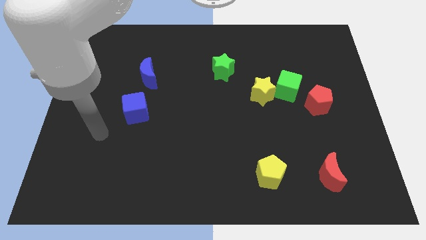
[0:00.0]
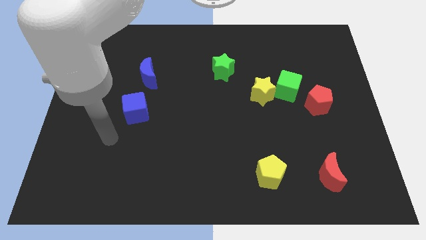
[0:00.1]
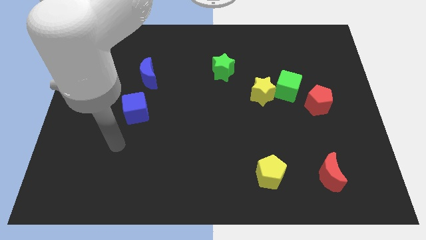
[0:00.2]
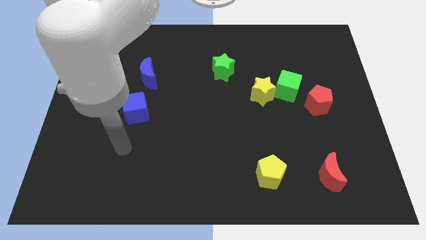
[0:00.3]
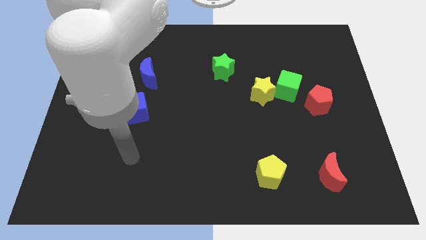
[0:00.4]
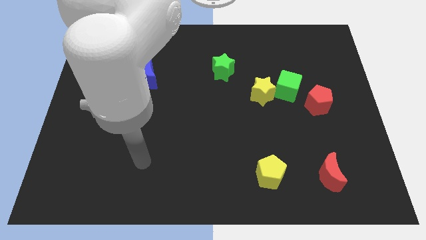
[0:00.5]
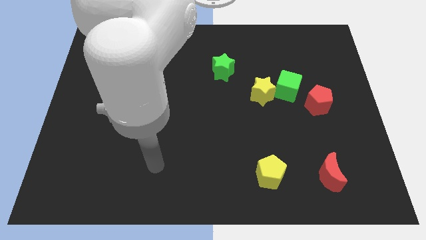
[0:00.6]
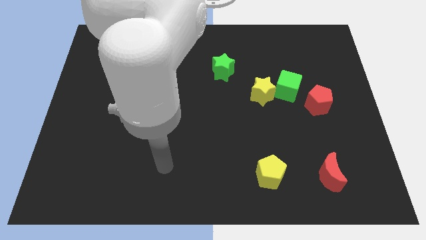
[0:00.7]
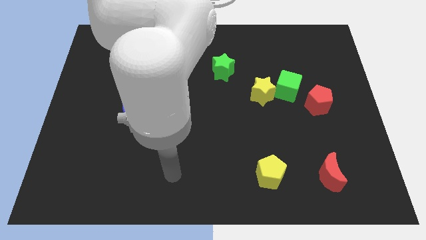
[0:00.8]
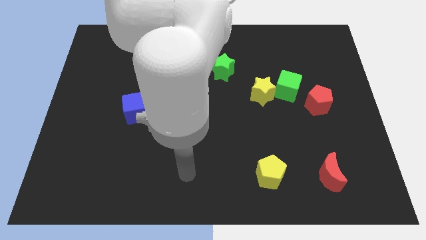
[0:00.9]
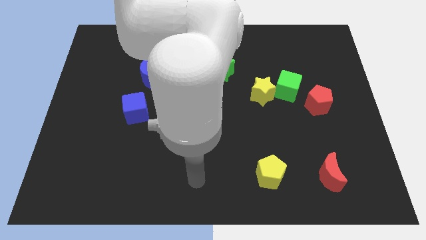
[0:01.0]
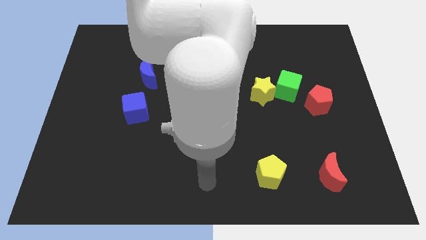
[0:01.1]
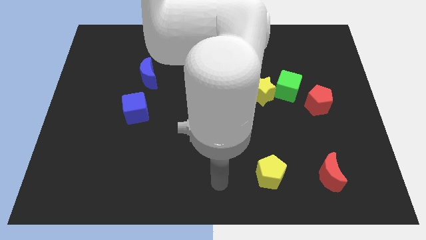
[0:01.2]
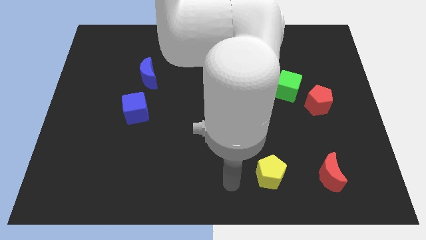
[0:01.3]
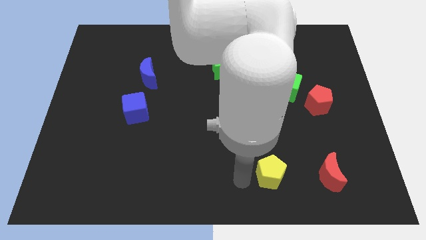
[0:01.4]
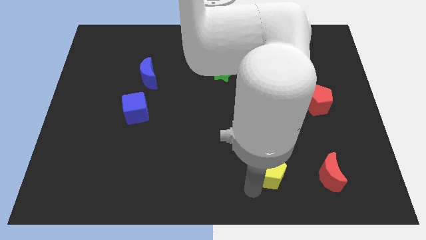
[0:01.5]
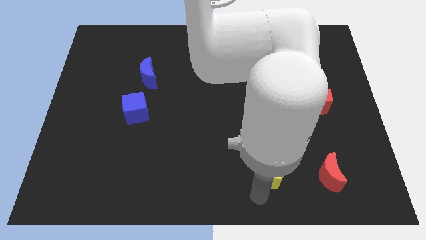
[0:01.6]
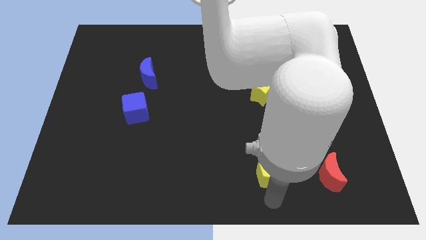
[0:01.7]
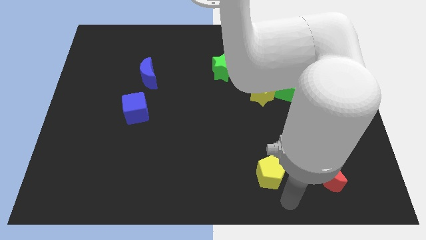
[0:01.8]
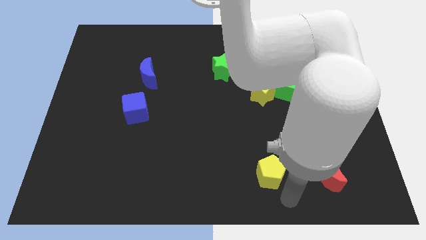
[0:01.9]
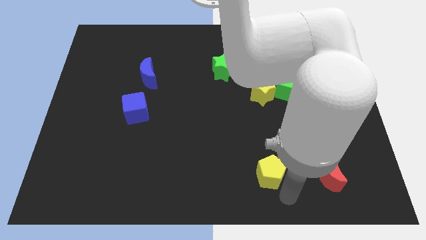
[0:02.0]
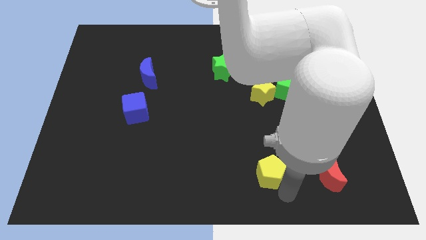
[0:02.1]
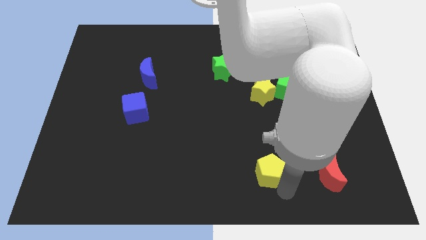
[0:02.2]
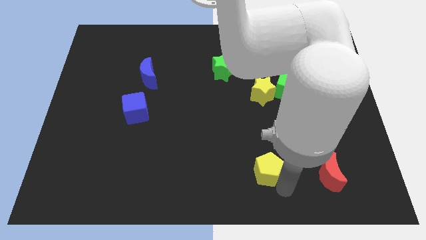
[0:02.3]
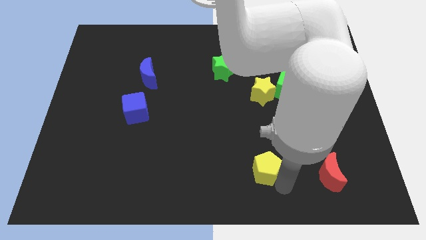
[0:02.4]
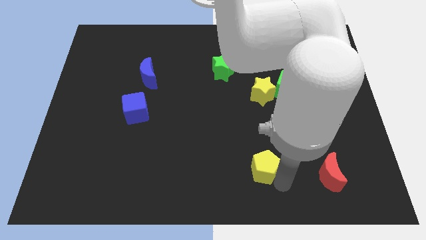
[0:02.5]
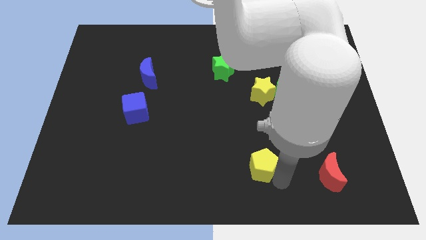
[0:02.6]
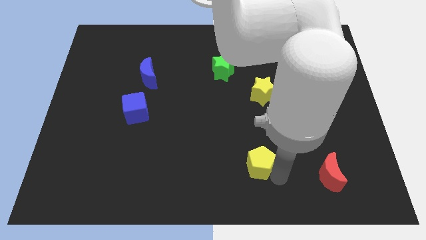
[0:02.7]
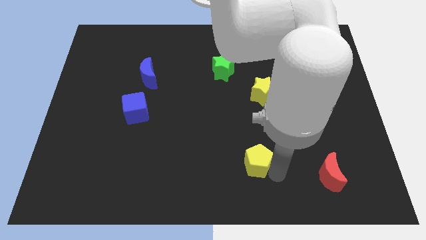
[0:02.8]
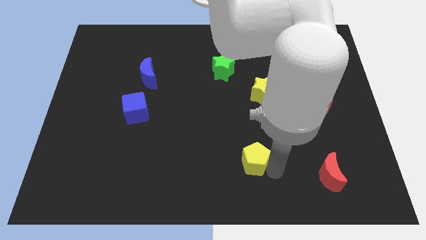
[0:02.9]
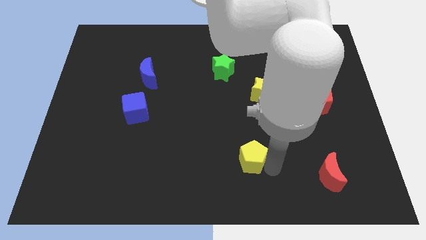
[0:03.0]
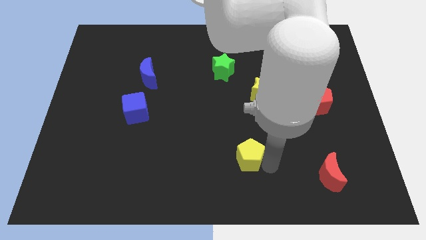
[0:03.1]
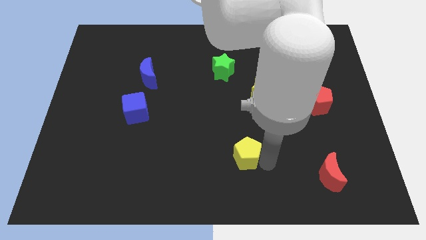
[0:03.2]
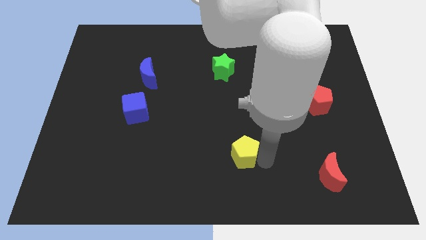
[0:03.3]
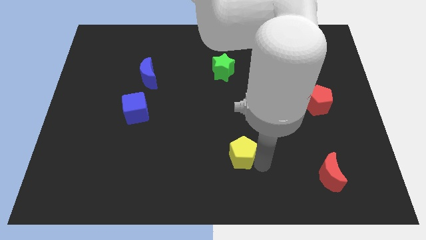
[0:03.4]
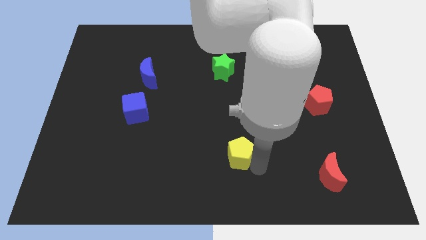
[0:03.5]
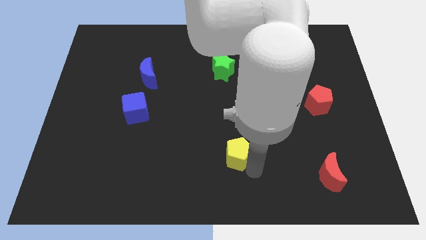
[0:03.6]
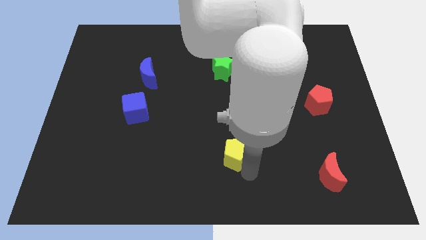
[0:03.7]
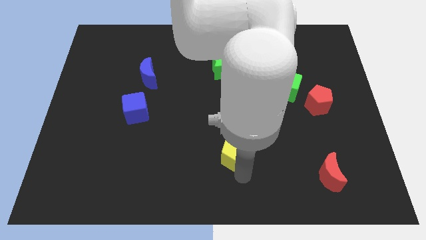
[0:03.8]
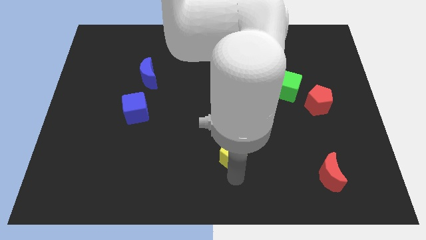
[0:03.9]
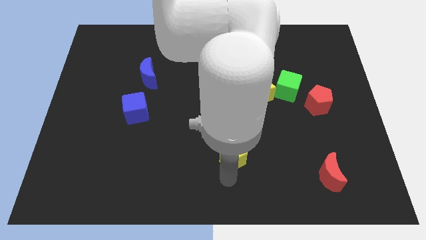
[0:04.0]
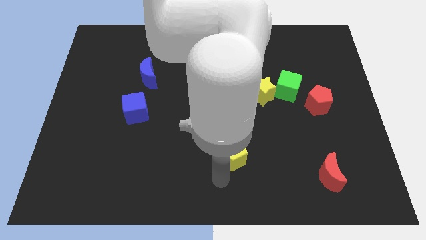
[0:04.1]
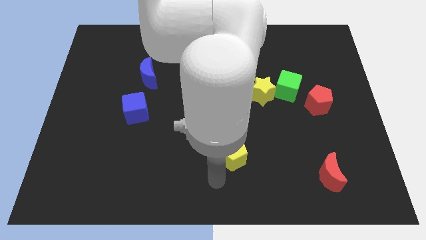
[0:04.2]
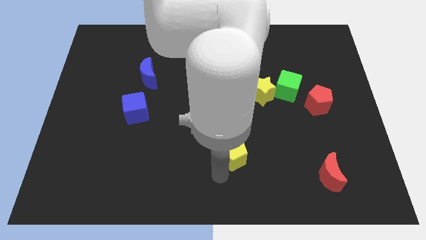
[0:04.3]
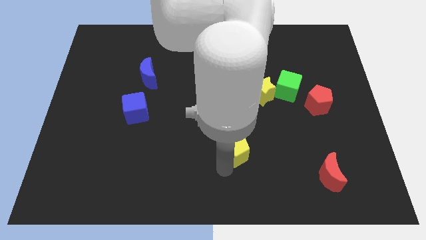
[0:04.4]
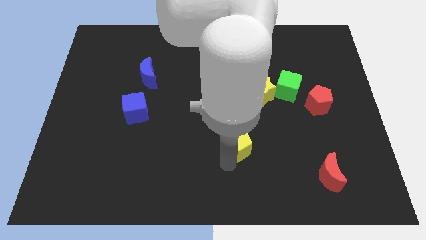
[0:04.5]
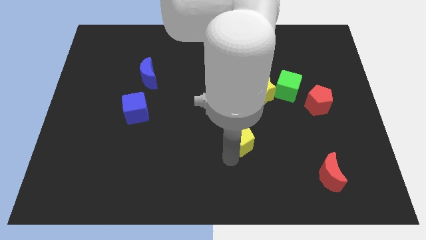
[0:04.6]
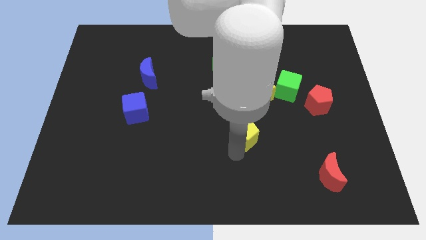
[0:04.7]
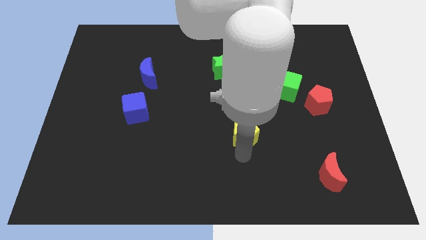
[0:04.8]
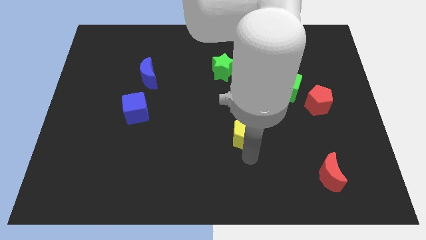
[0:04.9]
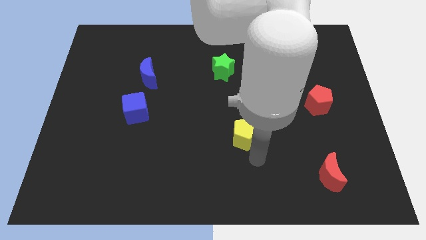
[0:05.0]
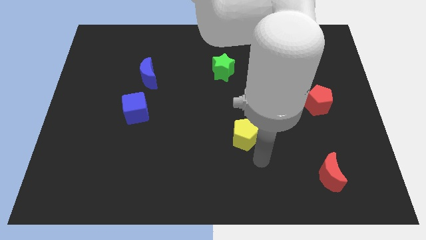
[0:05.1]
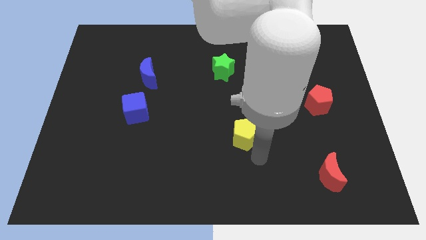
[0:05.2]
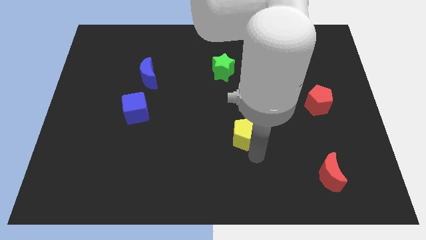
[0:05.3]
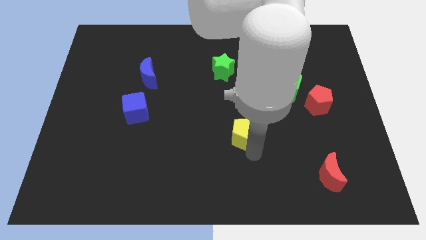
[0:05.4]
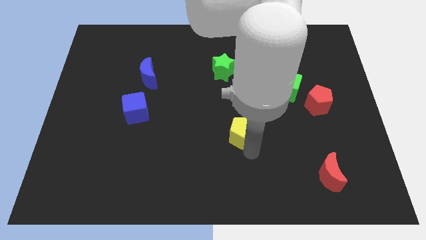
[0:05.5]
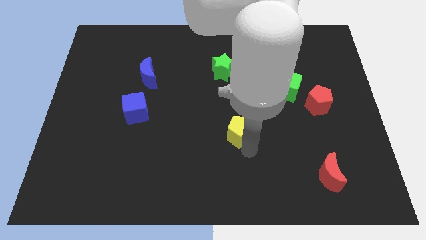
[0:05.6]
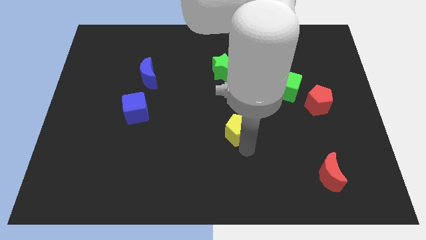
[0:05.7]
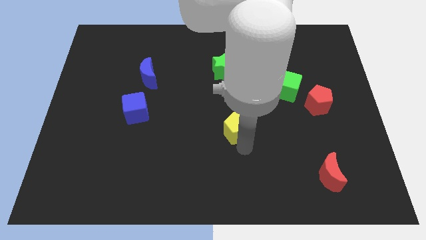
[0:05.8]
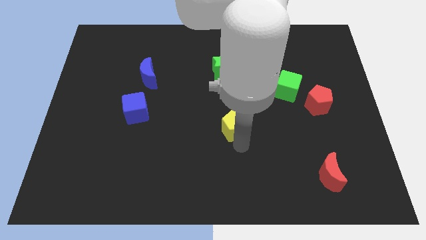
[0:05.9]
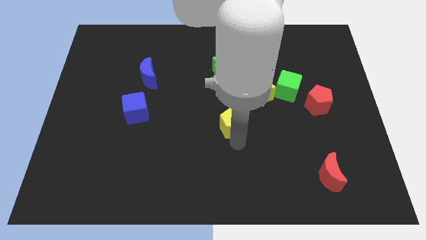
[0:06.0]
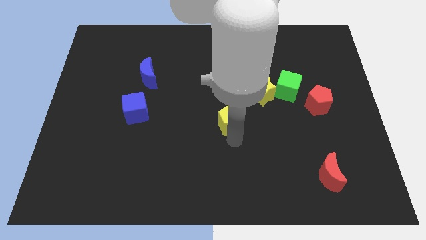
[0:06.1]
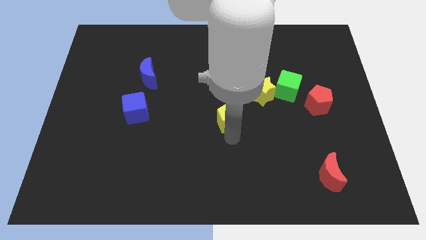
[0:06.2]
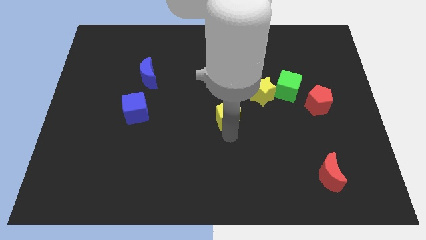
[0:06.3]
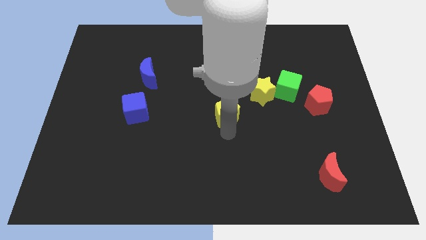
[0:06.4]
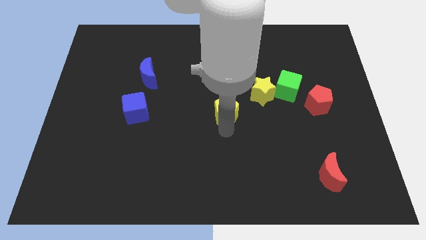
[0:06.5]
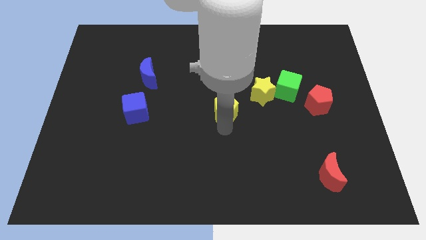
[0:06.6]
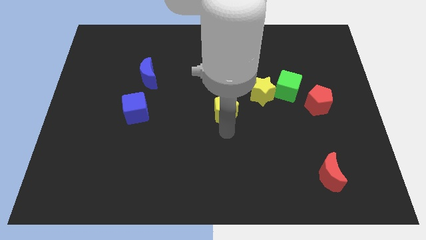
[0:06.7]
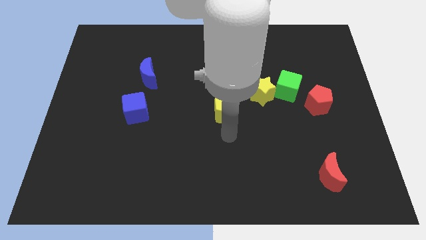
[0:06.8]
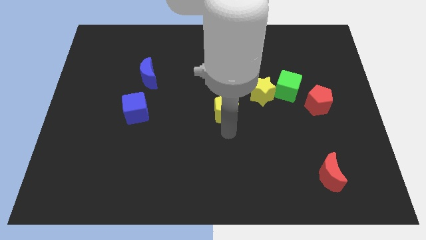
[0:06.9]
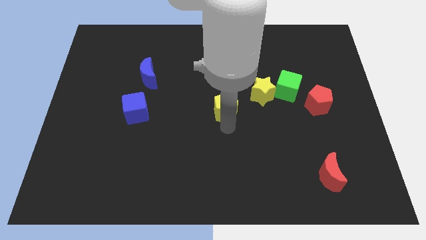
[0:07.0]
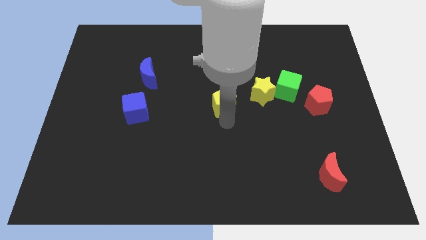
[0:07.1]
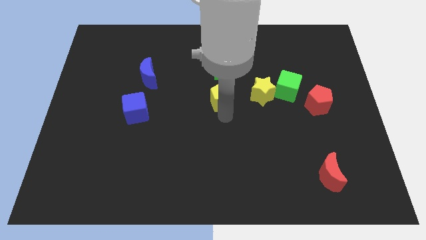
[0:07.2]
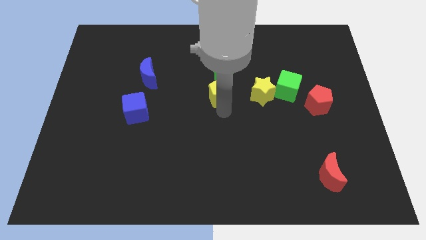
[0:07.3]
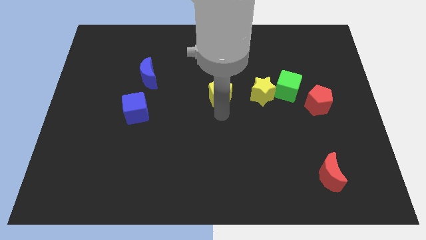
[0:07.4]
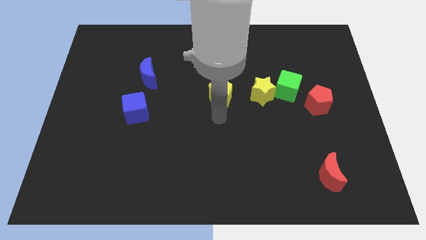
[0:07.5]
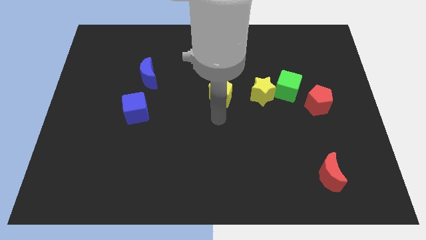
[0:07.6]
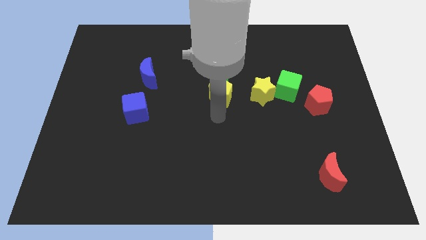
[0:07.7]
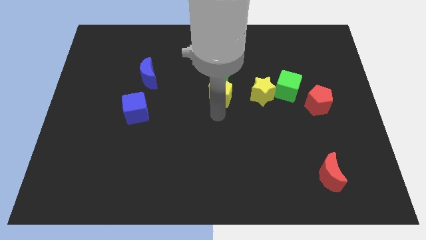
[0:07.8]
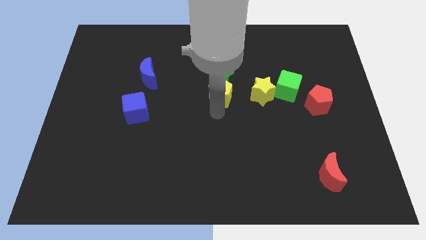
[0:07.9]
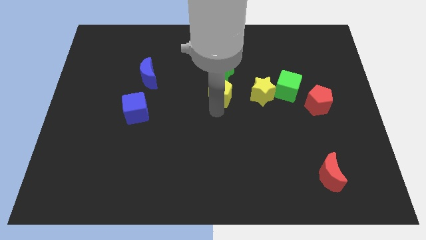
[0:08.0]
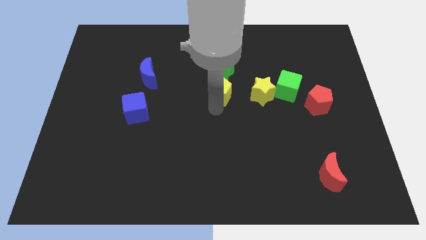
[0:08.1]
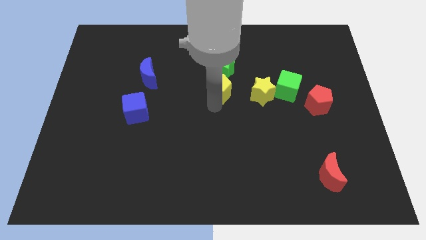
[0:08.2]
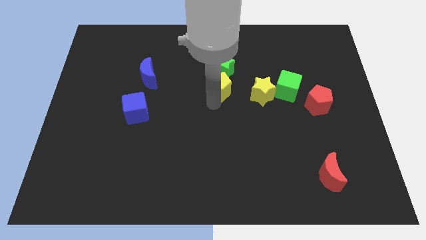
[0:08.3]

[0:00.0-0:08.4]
push the yellow pentagon to the green star
